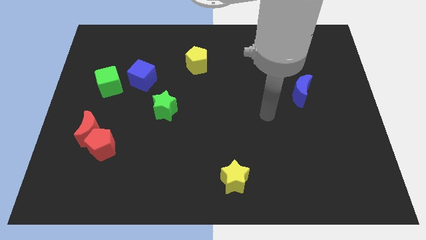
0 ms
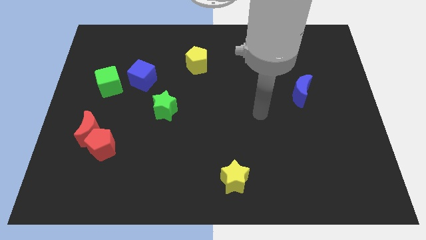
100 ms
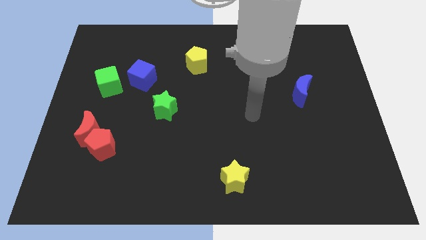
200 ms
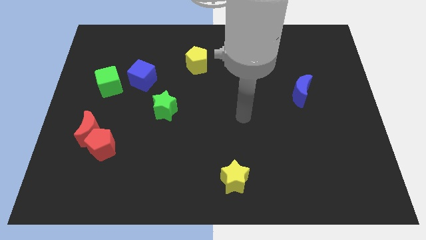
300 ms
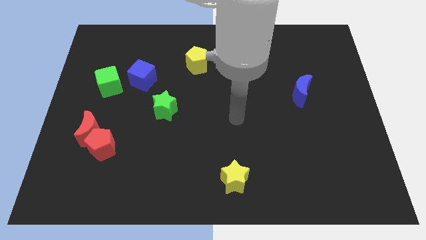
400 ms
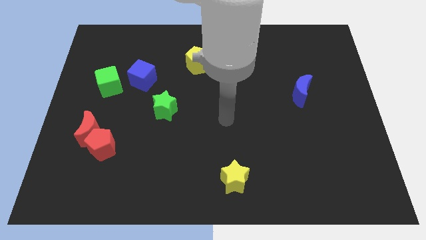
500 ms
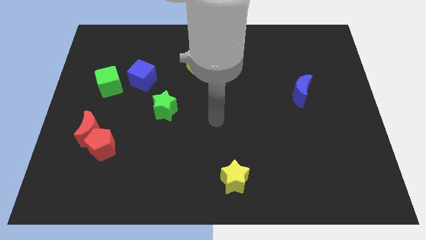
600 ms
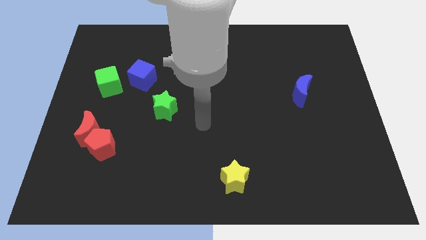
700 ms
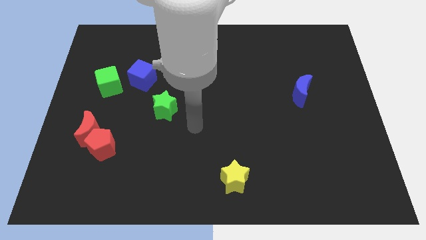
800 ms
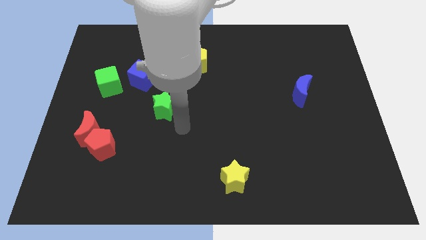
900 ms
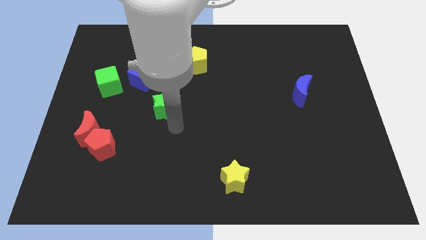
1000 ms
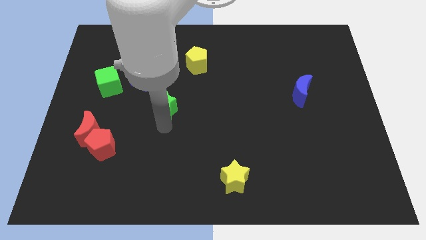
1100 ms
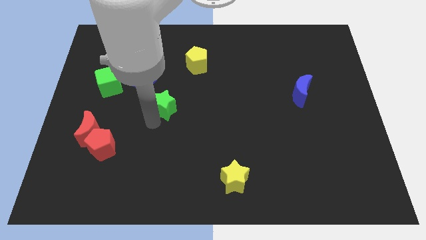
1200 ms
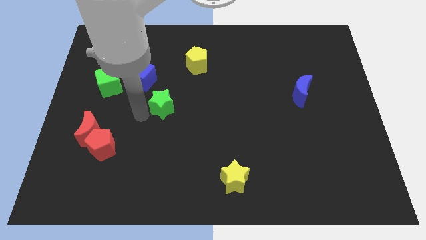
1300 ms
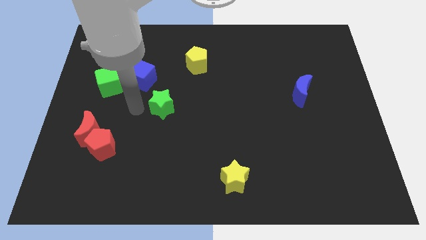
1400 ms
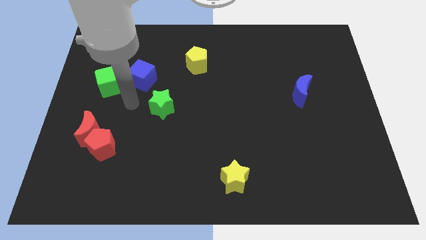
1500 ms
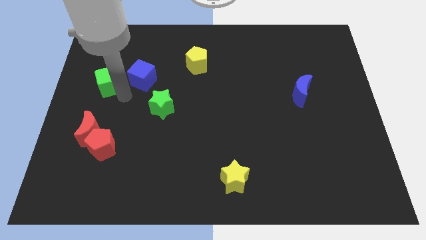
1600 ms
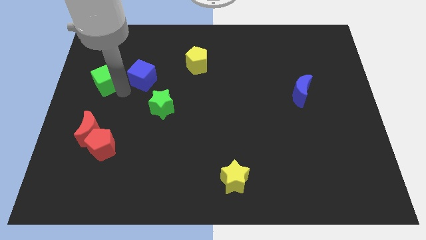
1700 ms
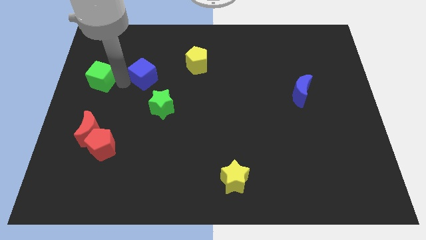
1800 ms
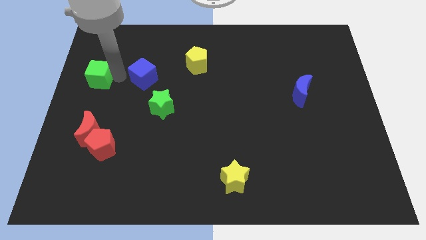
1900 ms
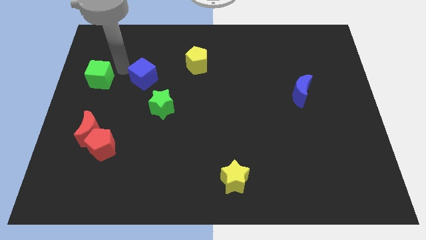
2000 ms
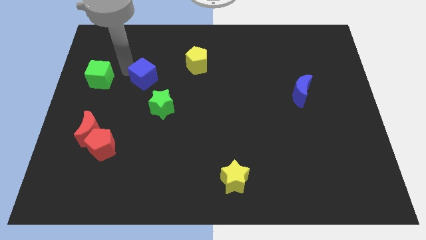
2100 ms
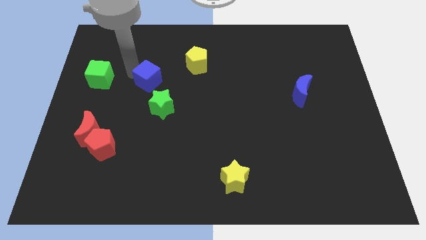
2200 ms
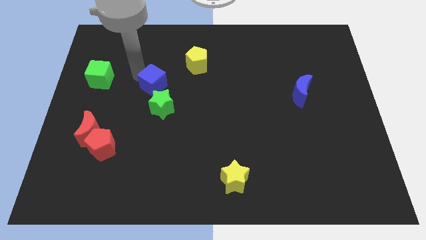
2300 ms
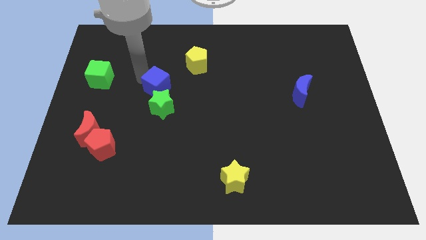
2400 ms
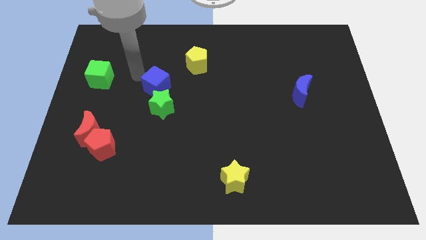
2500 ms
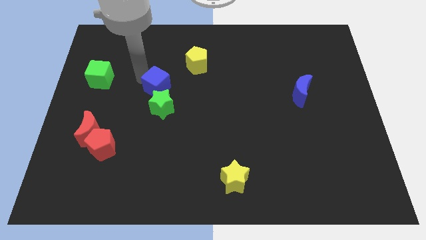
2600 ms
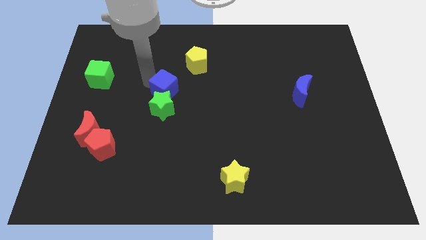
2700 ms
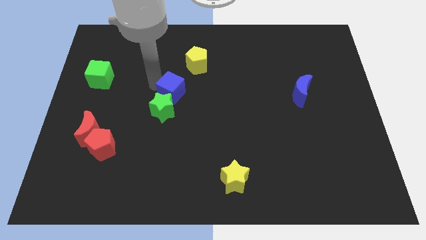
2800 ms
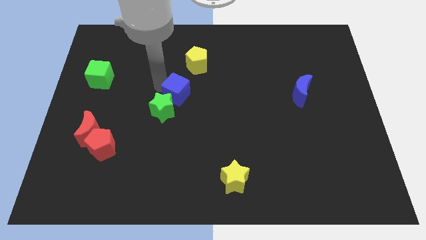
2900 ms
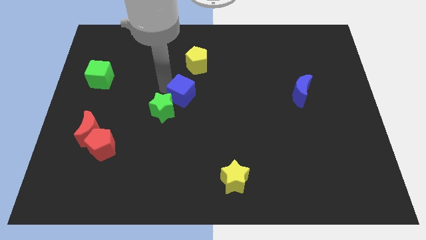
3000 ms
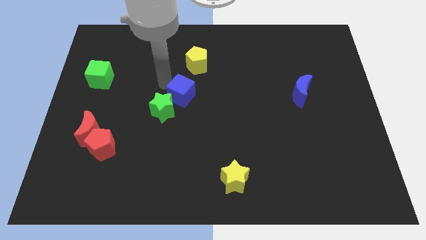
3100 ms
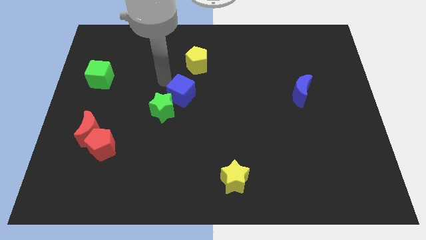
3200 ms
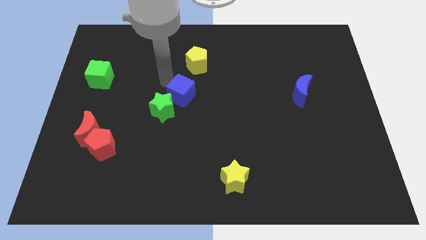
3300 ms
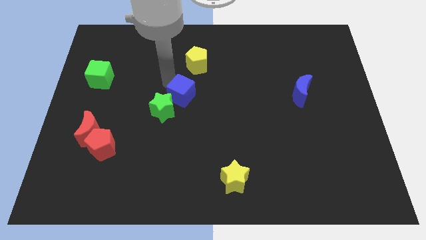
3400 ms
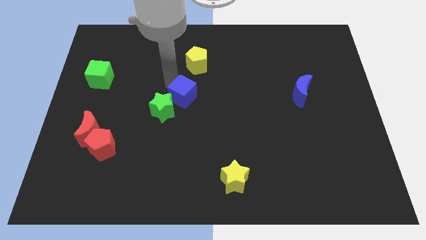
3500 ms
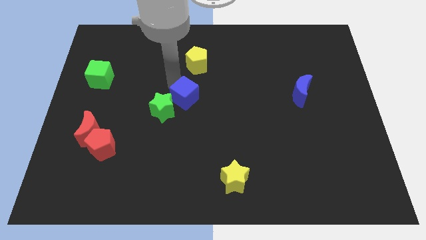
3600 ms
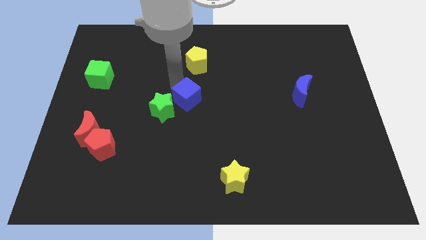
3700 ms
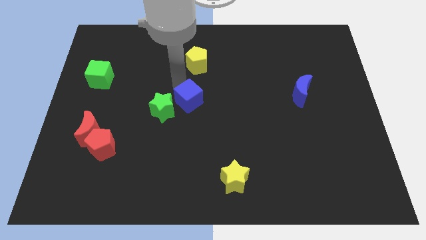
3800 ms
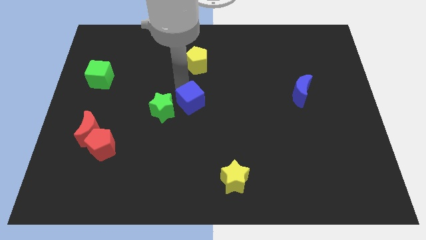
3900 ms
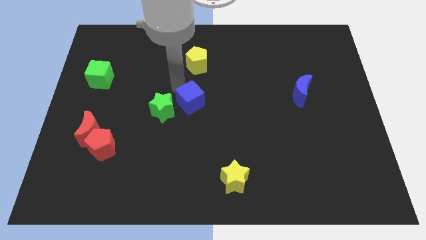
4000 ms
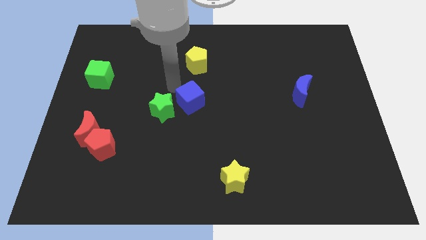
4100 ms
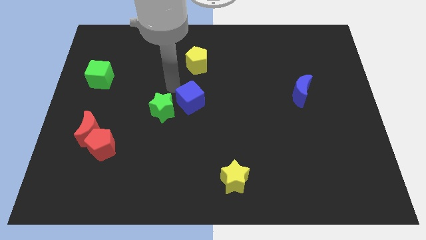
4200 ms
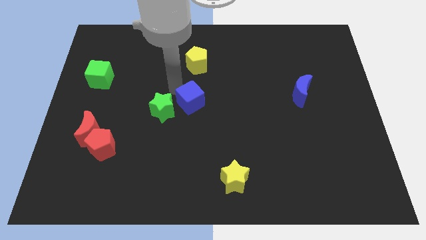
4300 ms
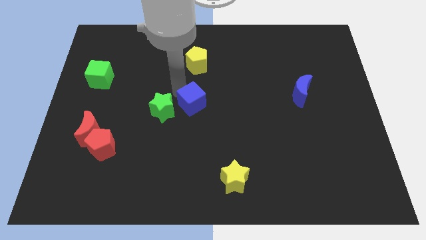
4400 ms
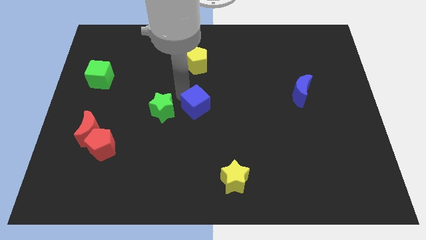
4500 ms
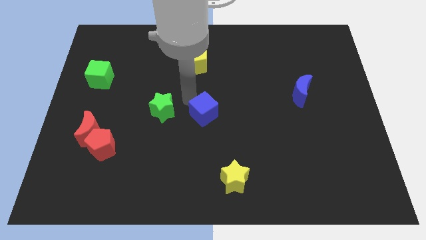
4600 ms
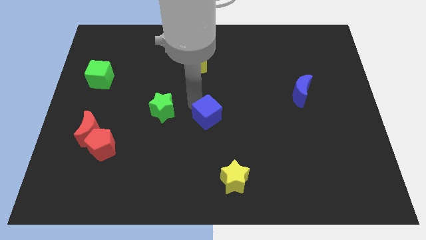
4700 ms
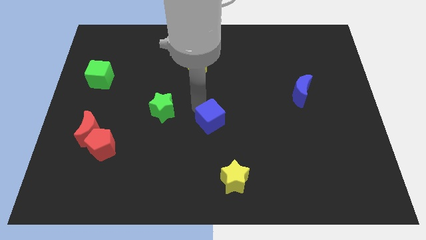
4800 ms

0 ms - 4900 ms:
slide the blue cube down and then right

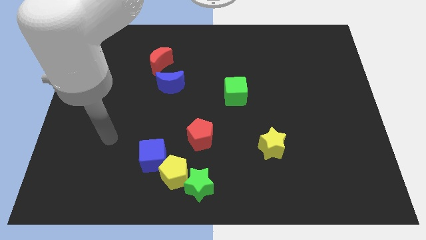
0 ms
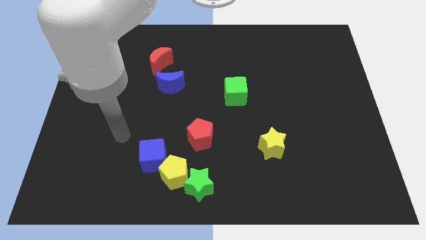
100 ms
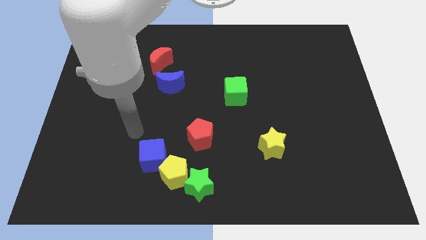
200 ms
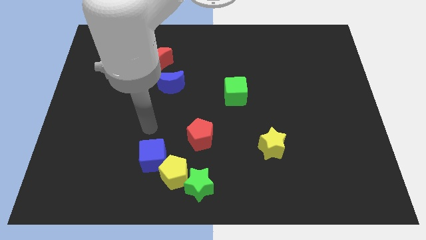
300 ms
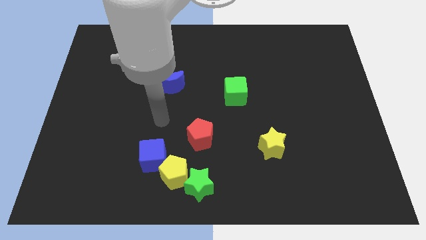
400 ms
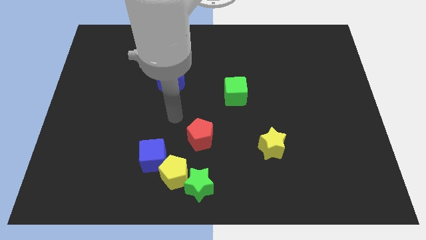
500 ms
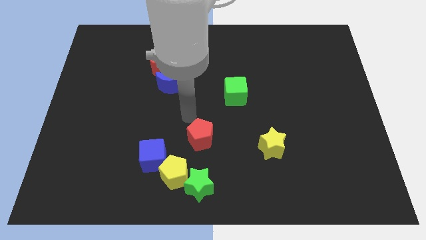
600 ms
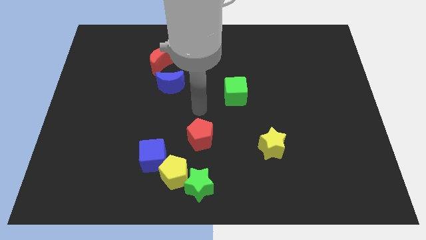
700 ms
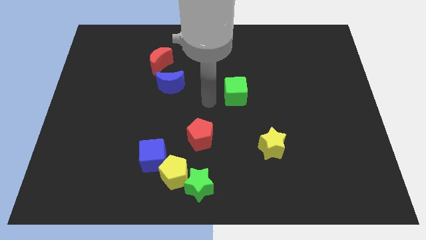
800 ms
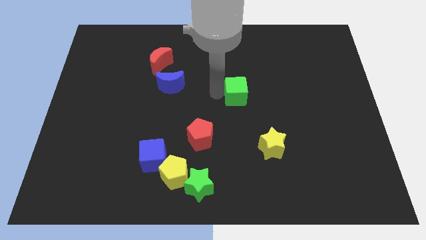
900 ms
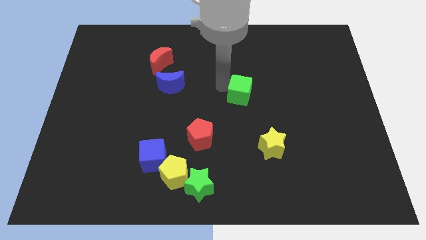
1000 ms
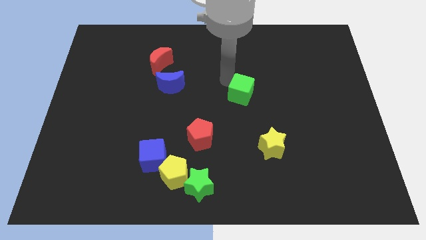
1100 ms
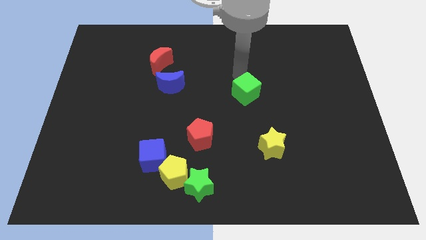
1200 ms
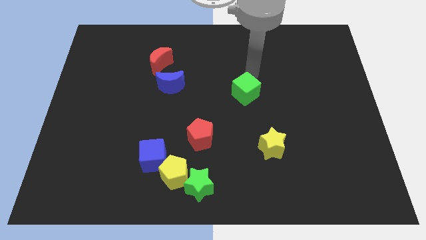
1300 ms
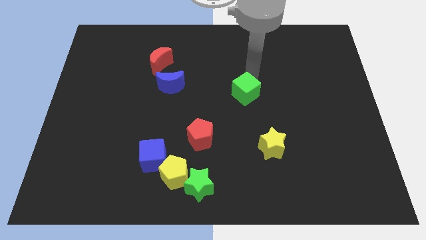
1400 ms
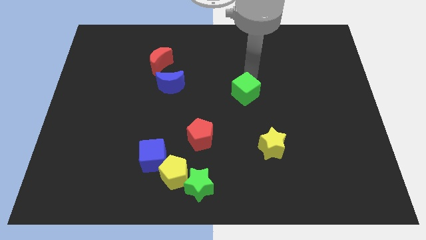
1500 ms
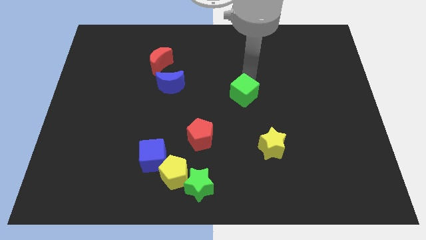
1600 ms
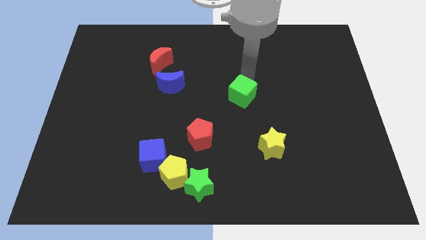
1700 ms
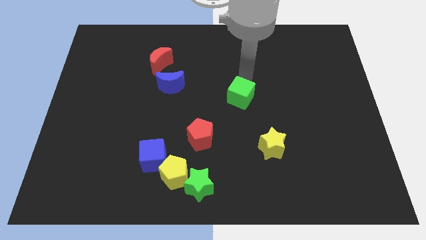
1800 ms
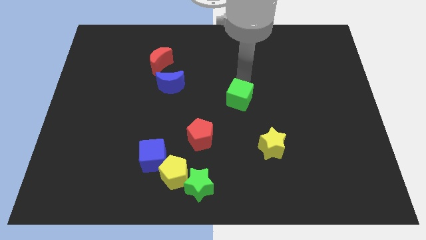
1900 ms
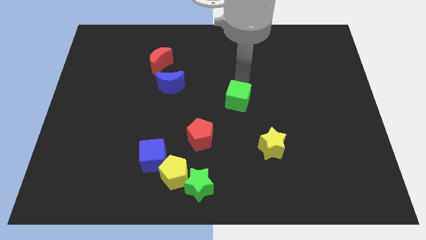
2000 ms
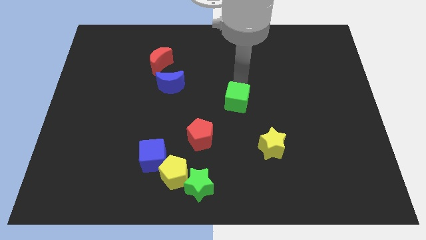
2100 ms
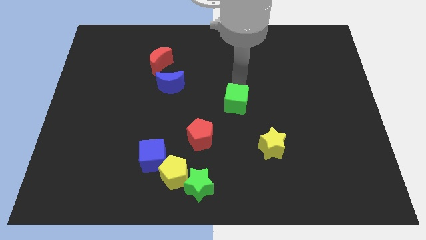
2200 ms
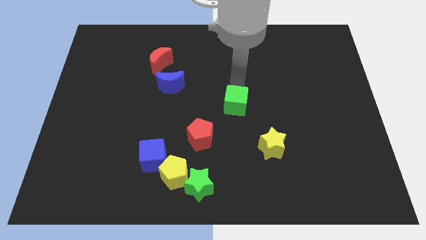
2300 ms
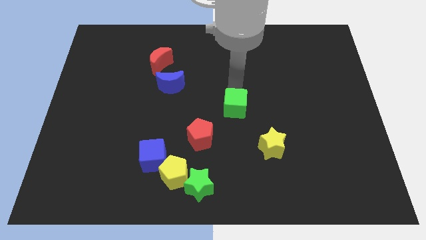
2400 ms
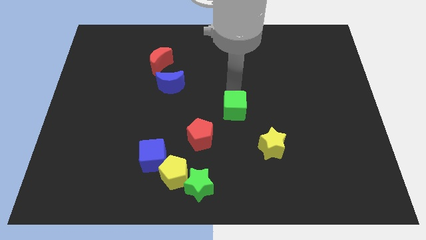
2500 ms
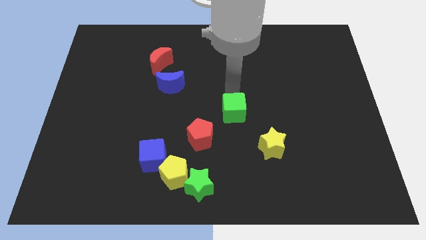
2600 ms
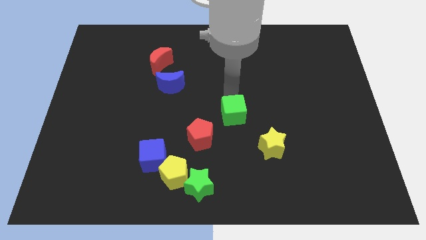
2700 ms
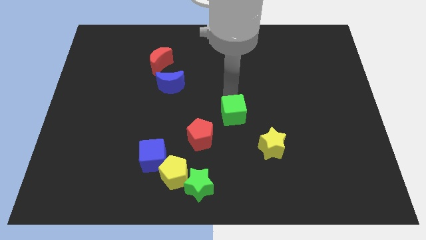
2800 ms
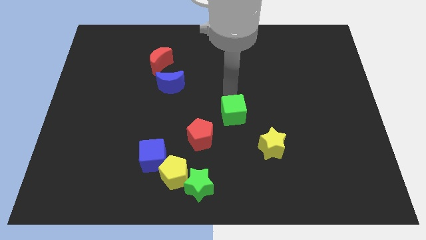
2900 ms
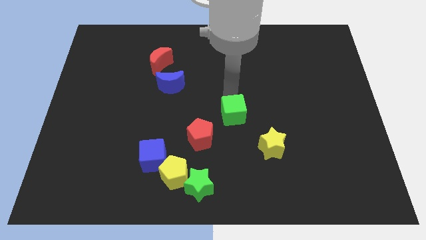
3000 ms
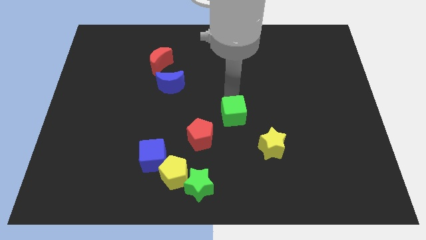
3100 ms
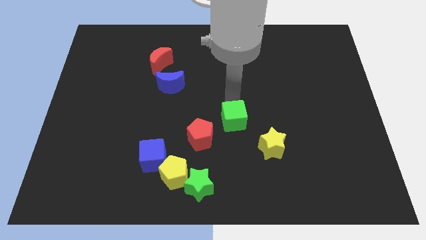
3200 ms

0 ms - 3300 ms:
slide the green cube a bit down
